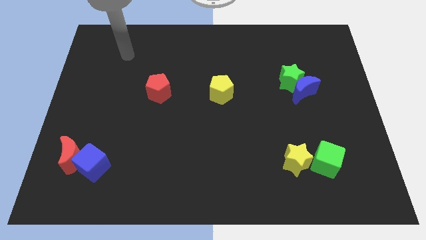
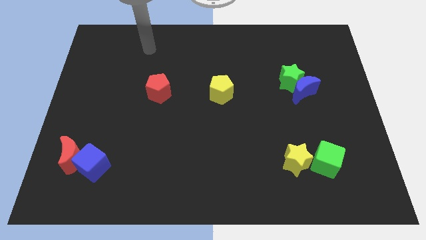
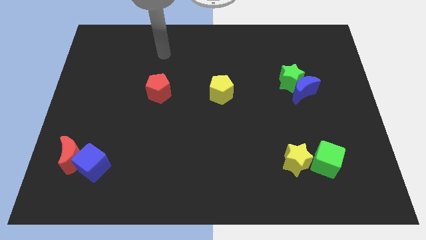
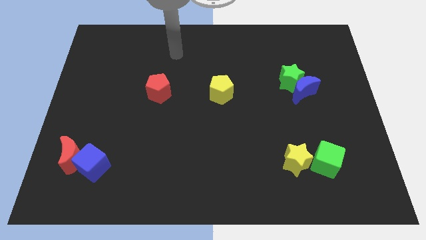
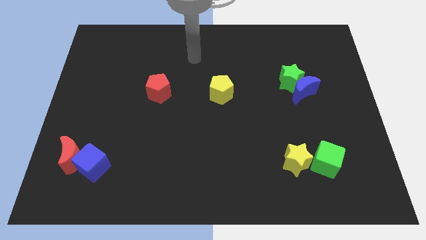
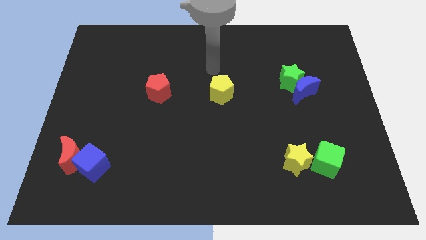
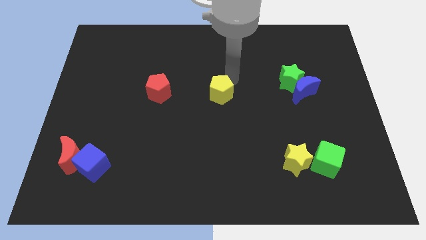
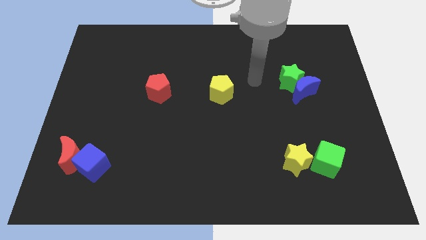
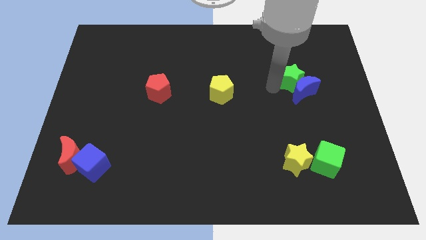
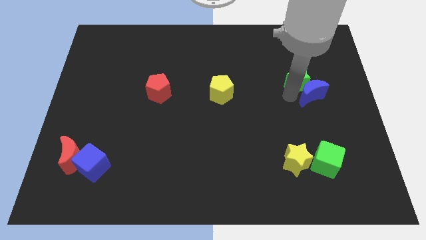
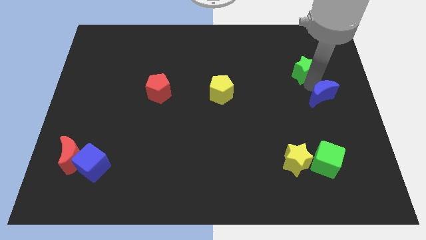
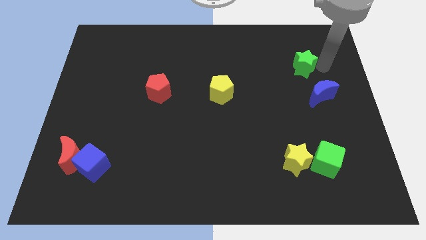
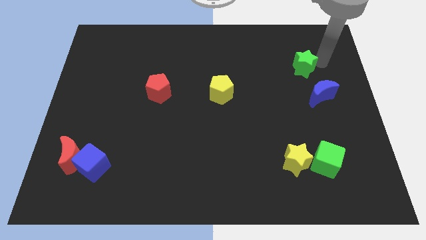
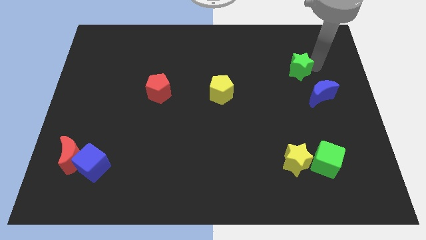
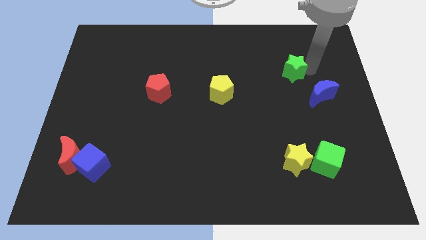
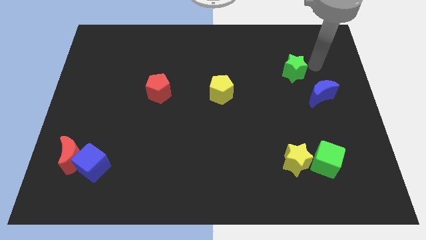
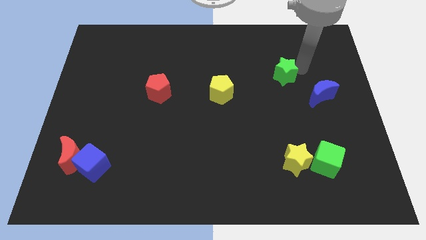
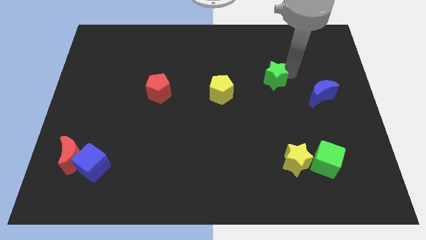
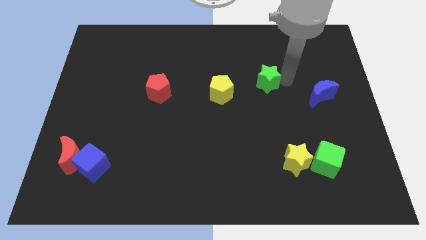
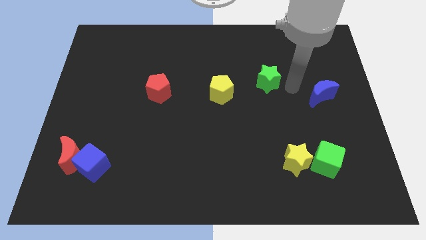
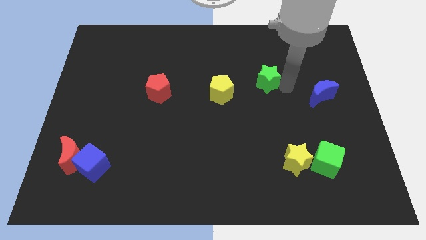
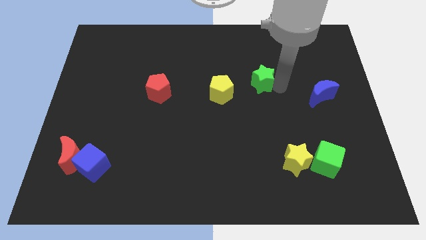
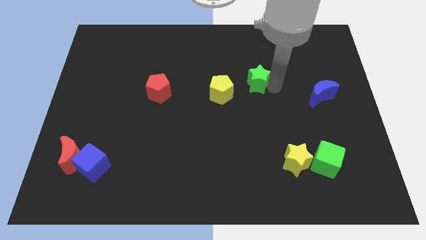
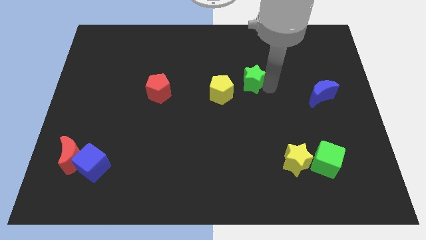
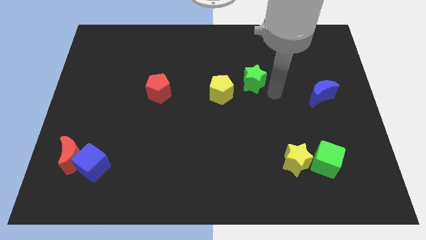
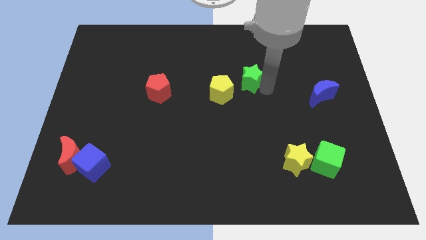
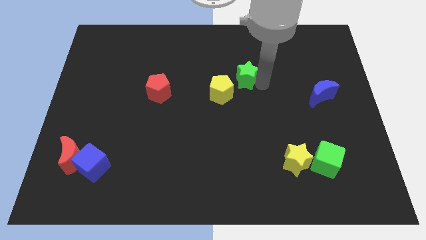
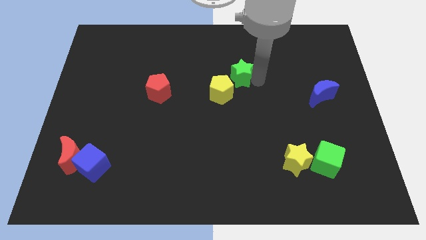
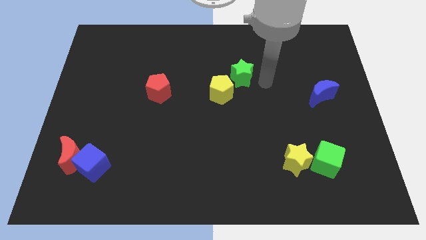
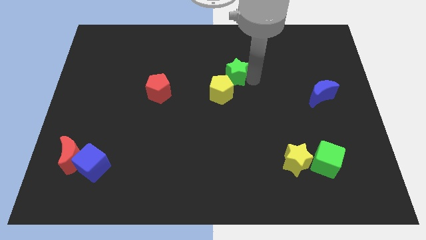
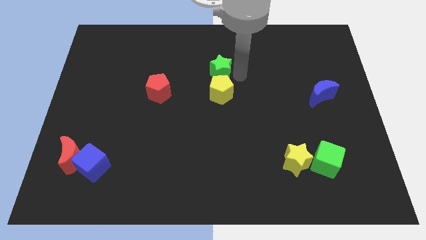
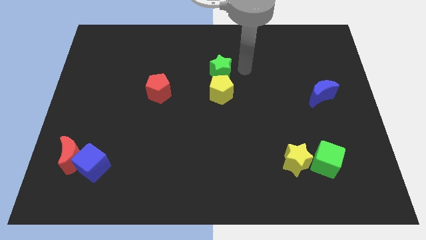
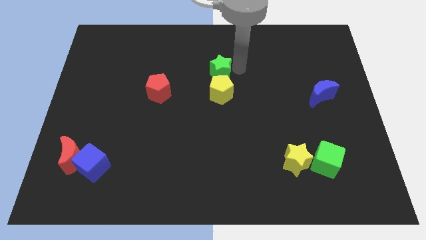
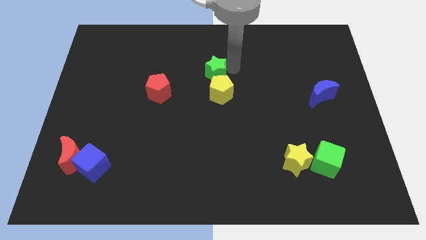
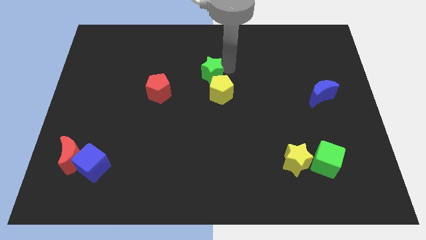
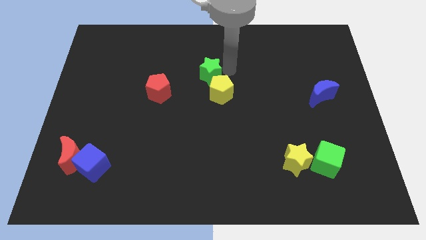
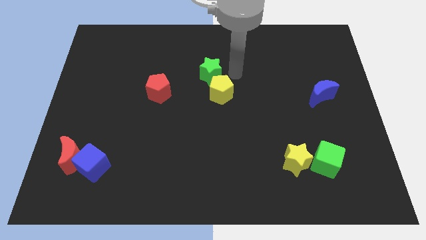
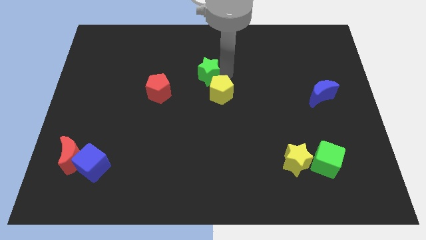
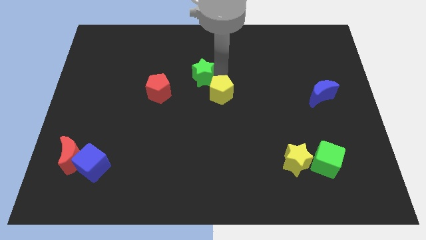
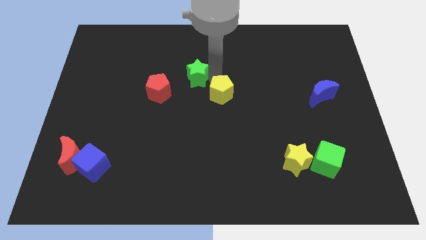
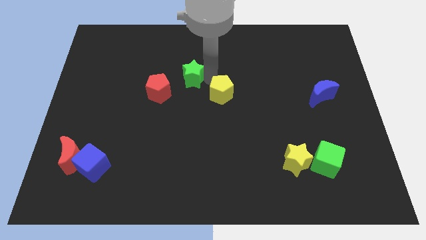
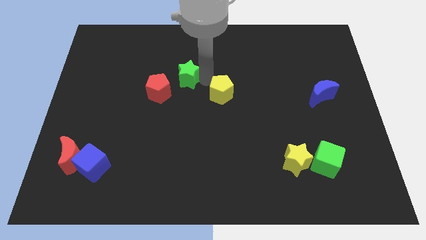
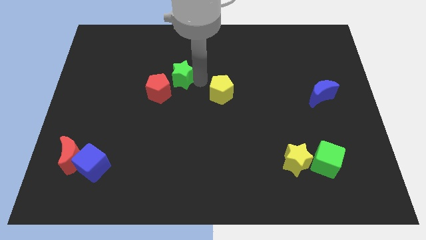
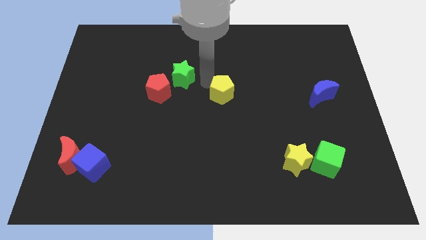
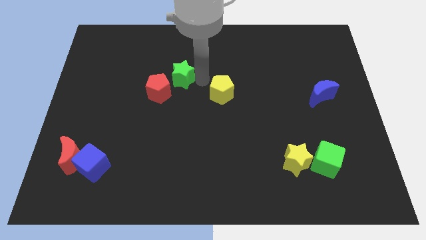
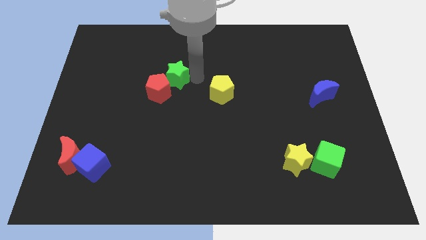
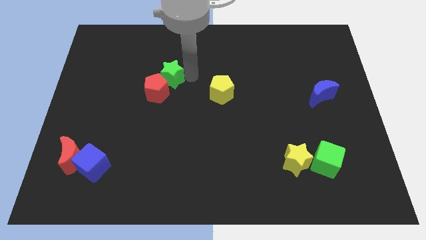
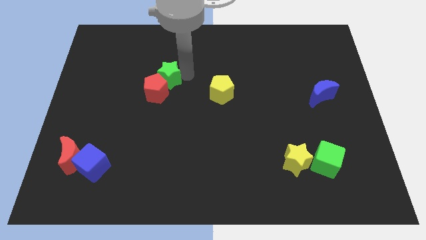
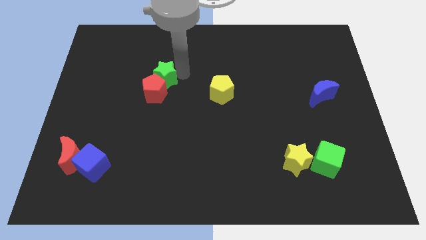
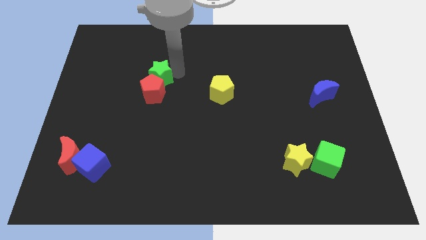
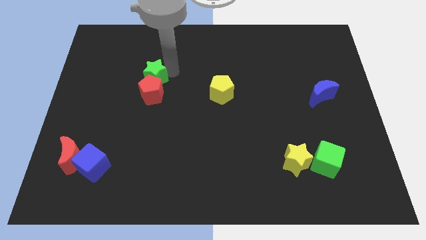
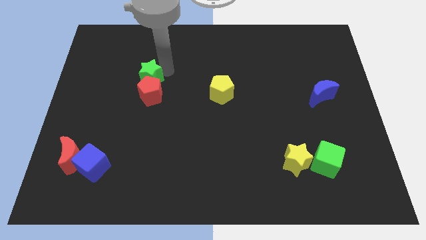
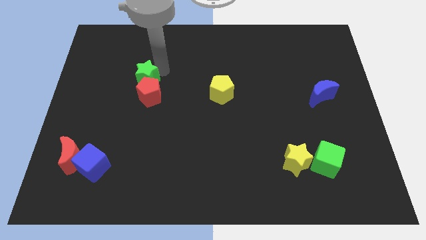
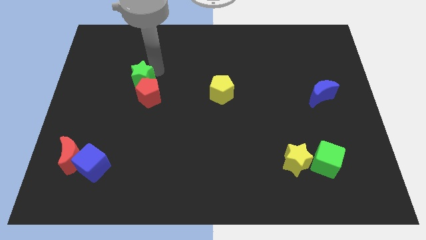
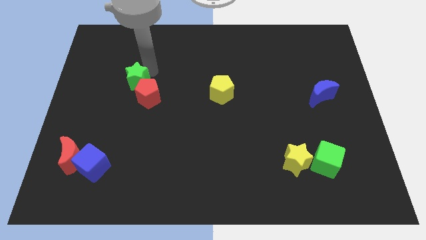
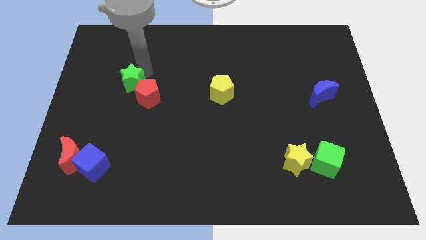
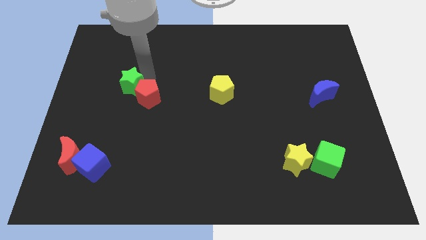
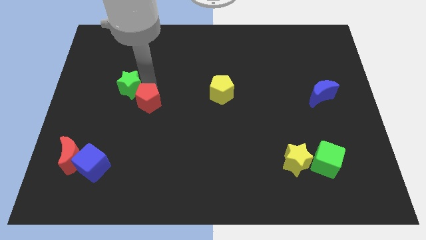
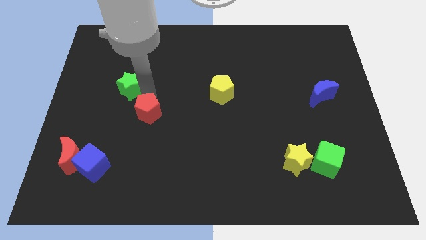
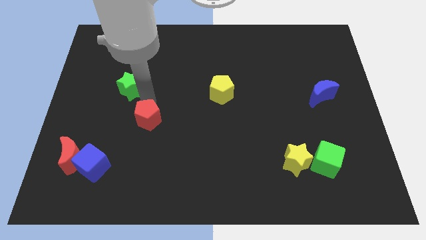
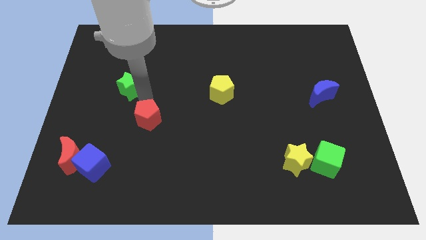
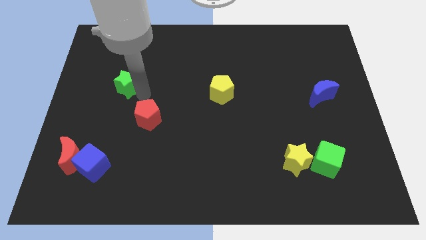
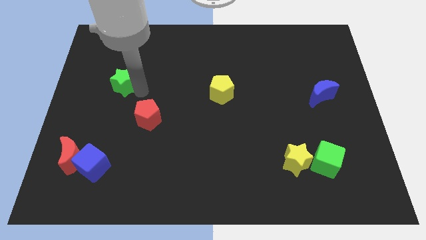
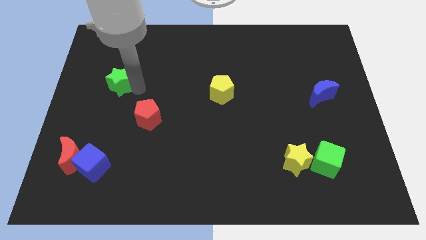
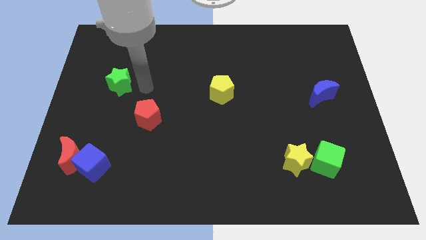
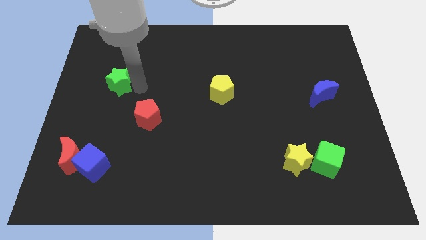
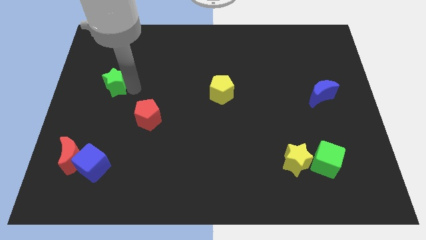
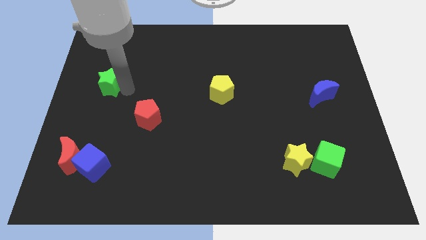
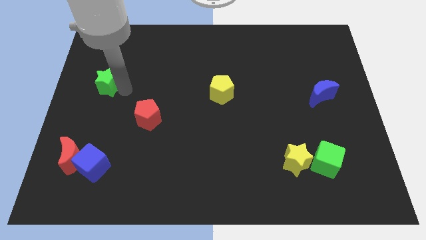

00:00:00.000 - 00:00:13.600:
slide the green star to the center left
